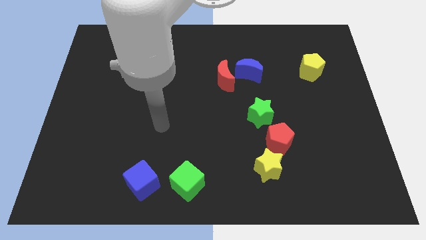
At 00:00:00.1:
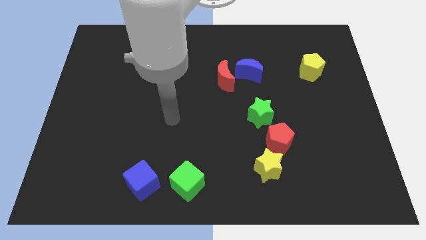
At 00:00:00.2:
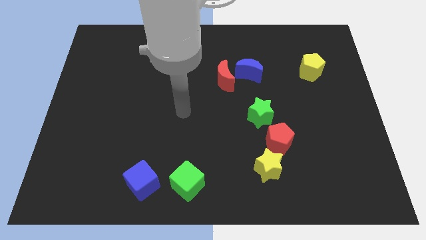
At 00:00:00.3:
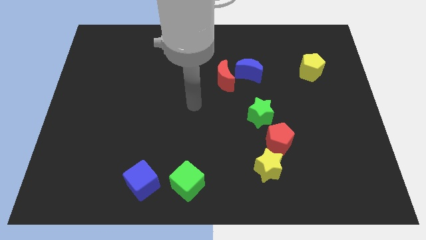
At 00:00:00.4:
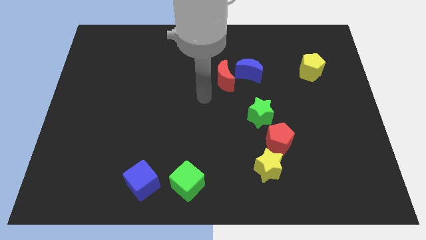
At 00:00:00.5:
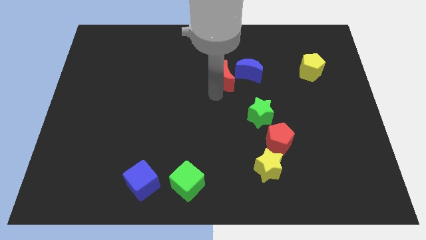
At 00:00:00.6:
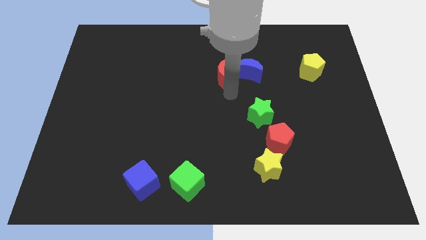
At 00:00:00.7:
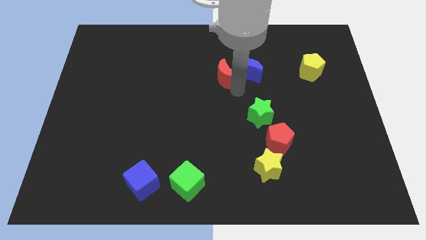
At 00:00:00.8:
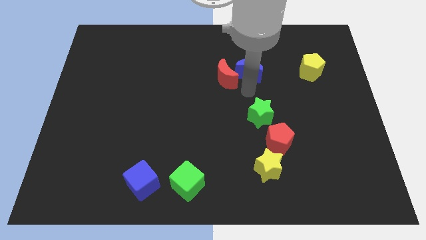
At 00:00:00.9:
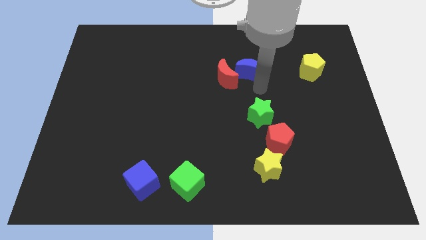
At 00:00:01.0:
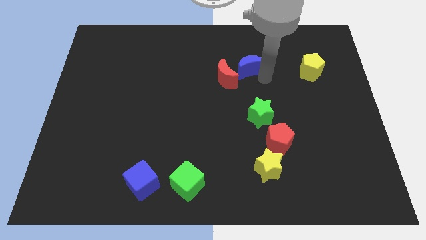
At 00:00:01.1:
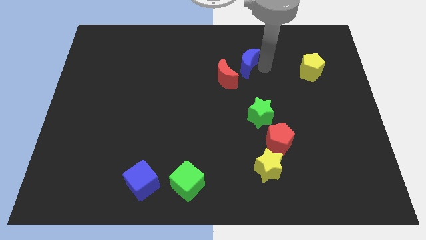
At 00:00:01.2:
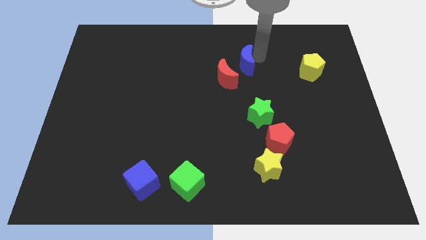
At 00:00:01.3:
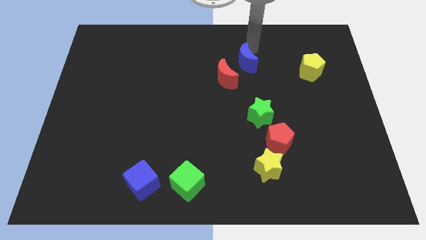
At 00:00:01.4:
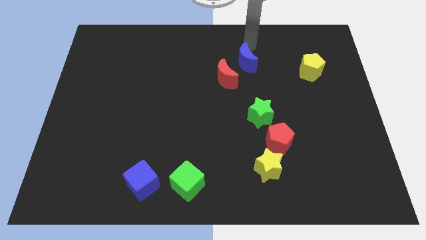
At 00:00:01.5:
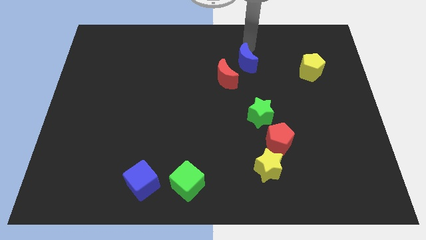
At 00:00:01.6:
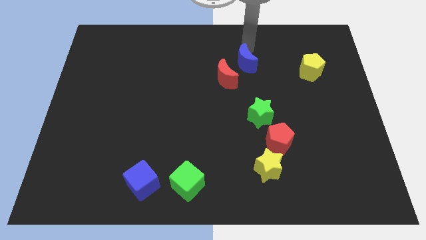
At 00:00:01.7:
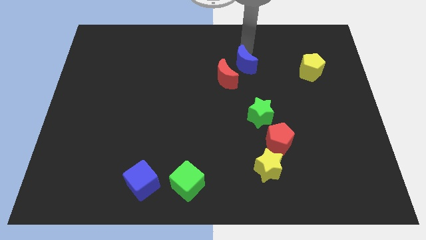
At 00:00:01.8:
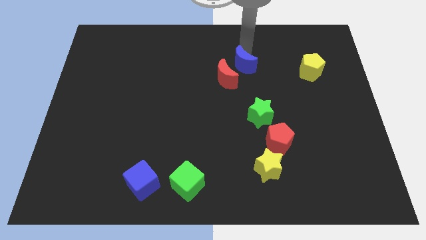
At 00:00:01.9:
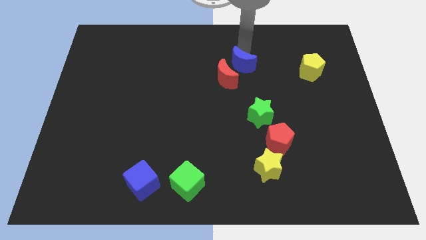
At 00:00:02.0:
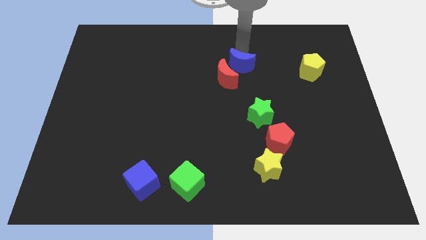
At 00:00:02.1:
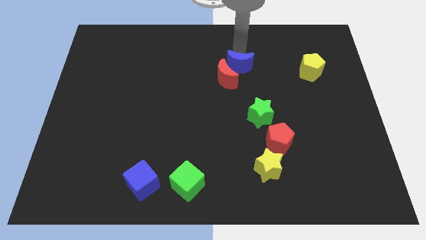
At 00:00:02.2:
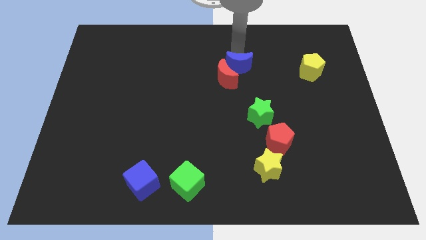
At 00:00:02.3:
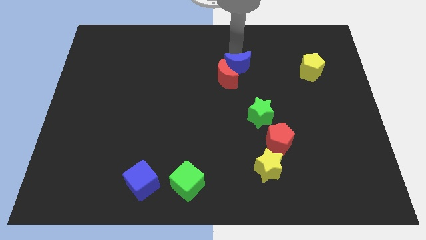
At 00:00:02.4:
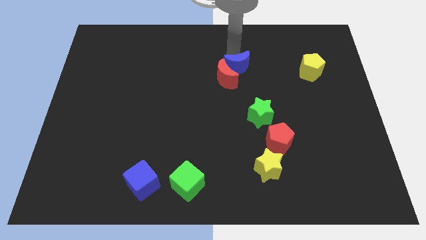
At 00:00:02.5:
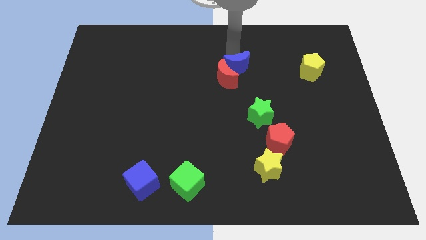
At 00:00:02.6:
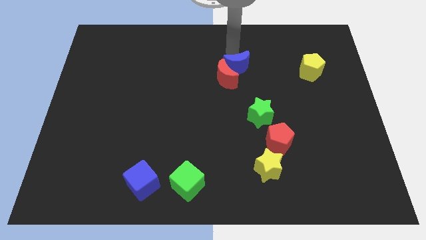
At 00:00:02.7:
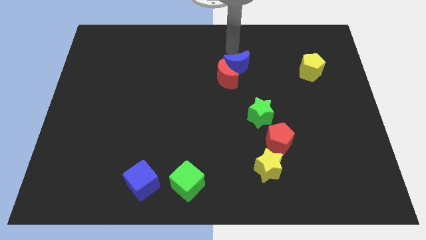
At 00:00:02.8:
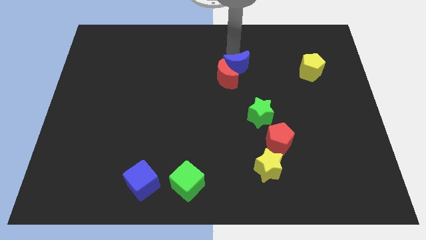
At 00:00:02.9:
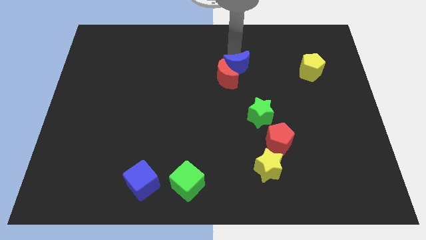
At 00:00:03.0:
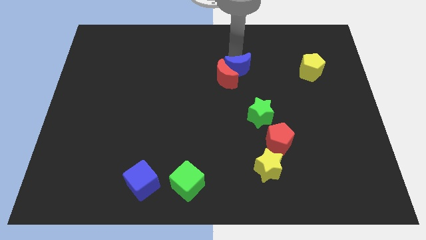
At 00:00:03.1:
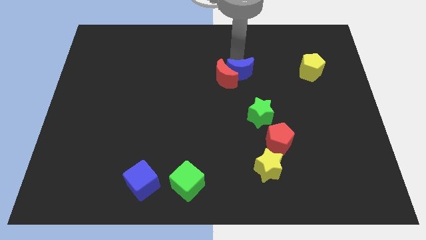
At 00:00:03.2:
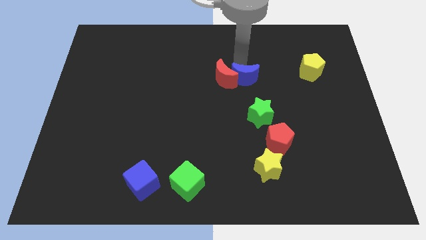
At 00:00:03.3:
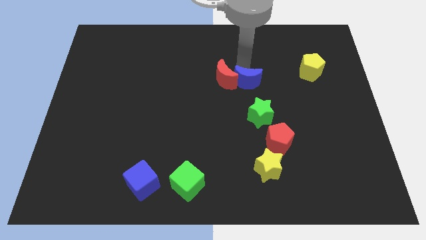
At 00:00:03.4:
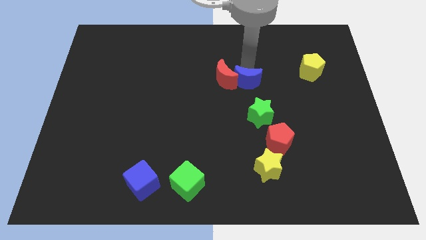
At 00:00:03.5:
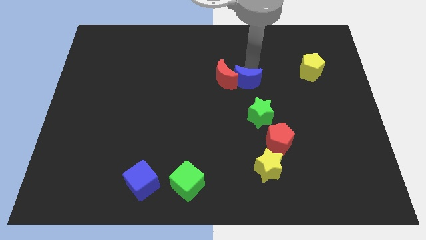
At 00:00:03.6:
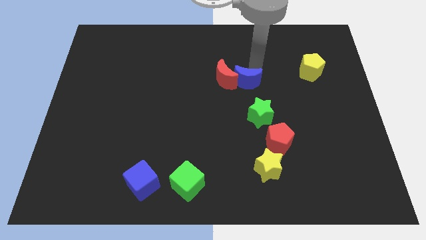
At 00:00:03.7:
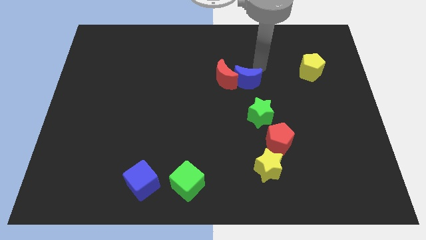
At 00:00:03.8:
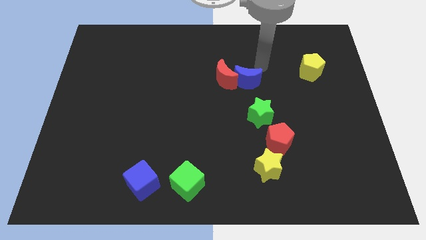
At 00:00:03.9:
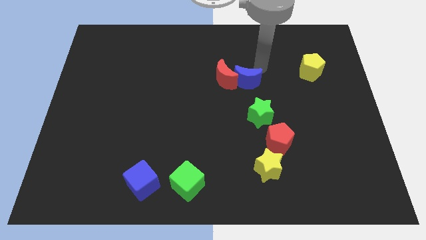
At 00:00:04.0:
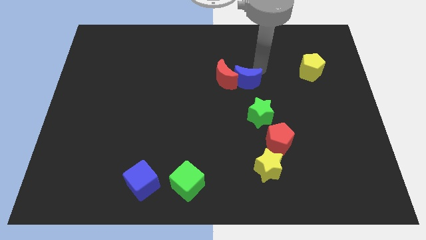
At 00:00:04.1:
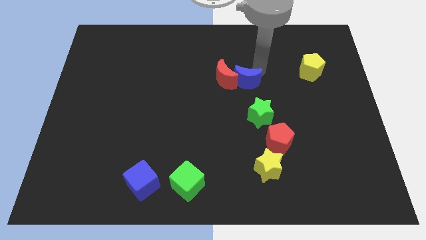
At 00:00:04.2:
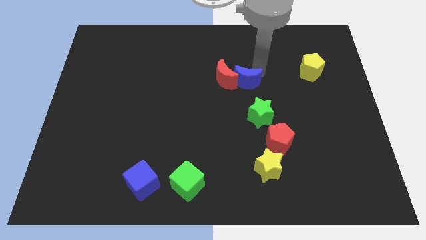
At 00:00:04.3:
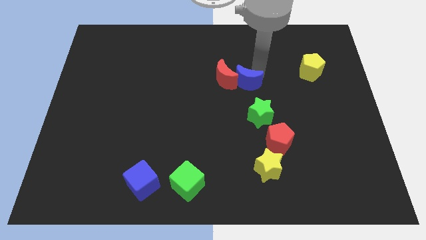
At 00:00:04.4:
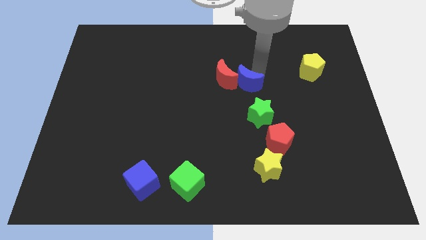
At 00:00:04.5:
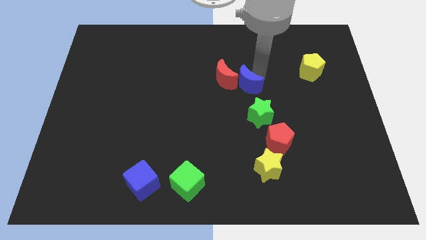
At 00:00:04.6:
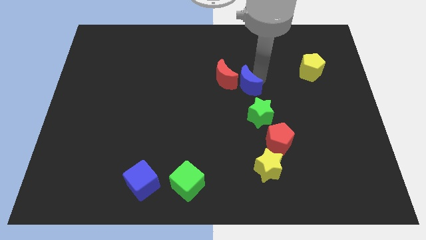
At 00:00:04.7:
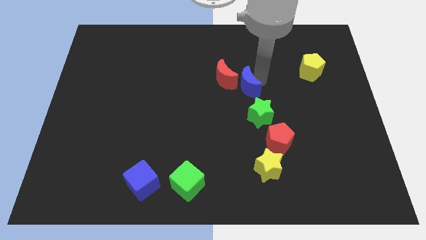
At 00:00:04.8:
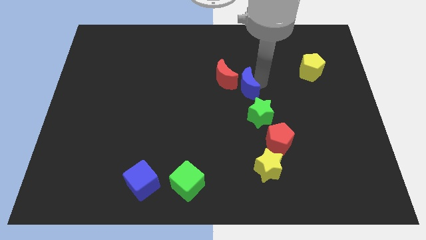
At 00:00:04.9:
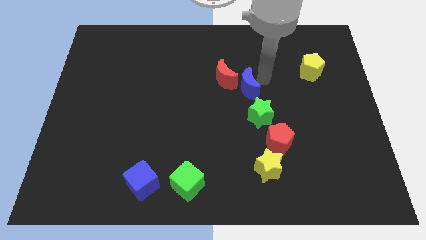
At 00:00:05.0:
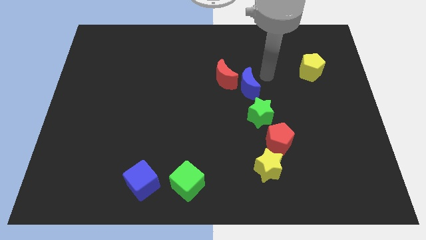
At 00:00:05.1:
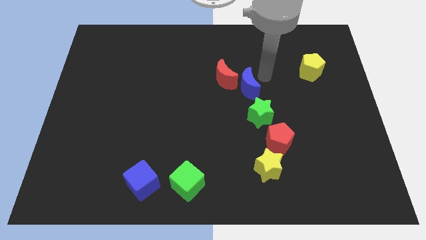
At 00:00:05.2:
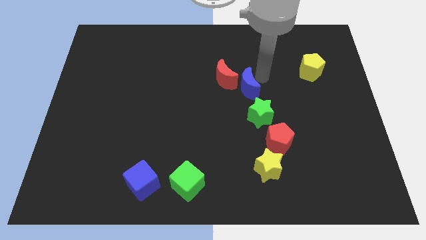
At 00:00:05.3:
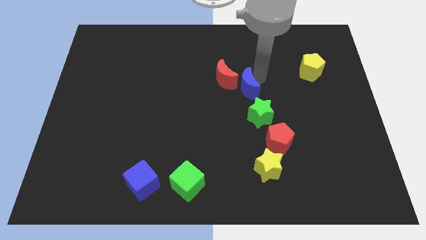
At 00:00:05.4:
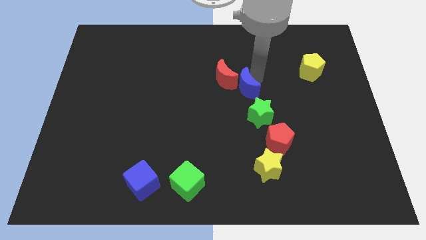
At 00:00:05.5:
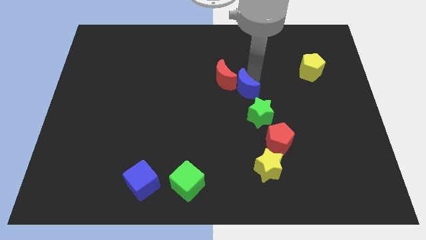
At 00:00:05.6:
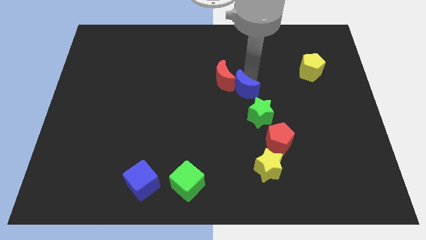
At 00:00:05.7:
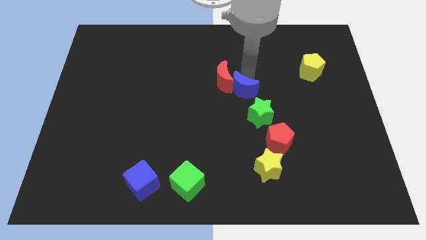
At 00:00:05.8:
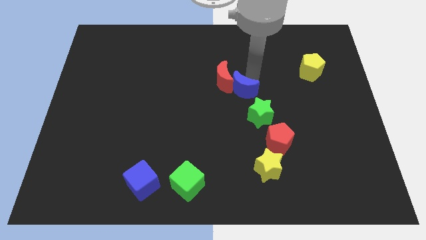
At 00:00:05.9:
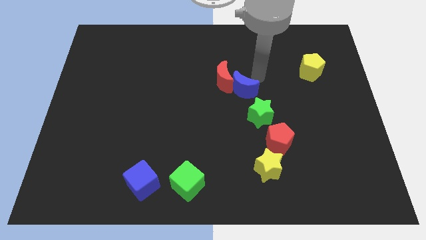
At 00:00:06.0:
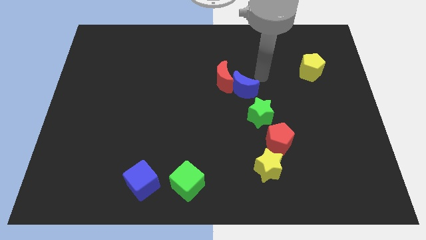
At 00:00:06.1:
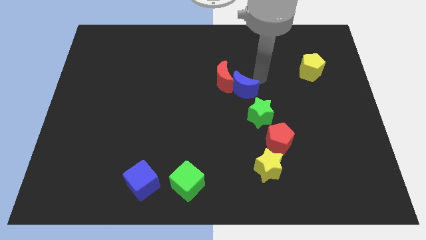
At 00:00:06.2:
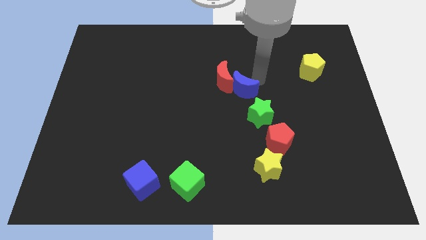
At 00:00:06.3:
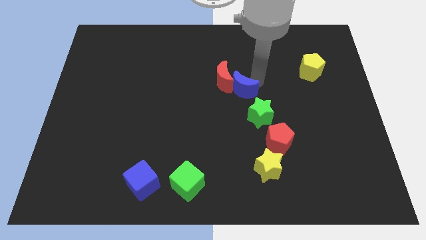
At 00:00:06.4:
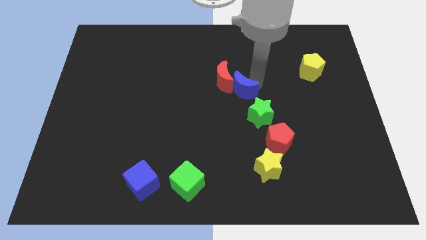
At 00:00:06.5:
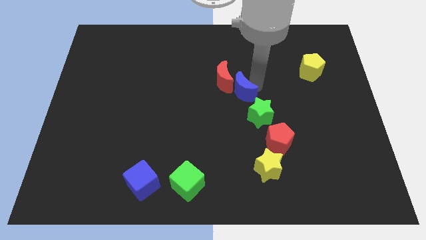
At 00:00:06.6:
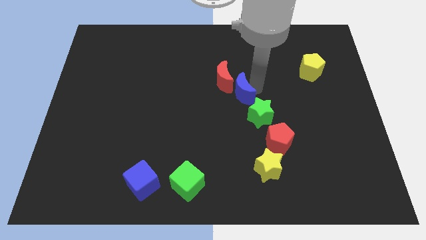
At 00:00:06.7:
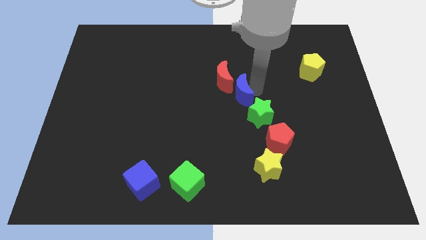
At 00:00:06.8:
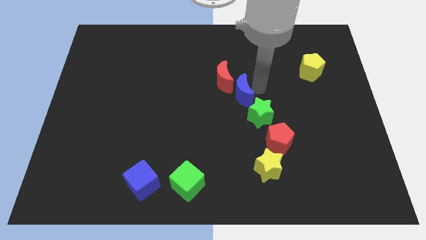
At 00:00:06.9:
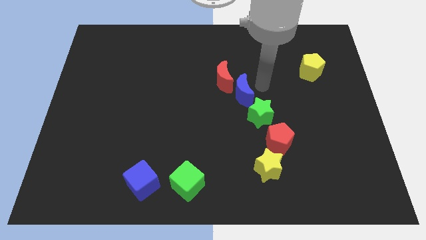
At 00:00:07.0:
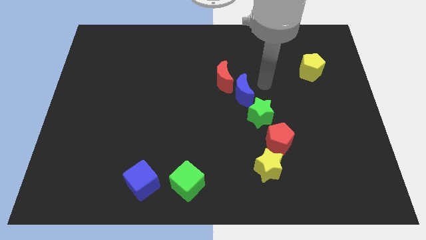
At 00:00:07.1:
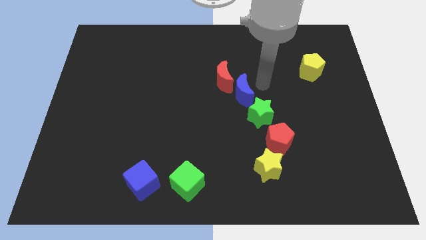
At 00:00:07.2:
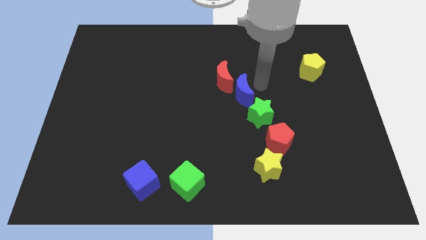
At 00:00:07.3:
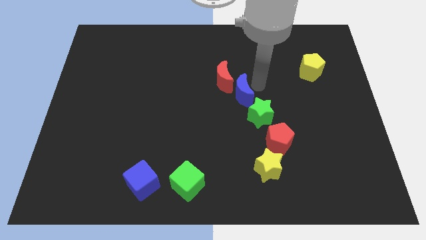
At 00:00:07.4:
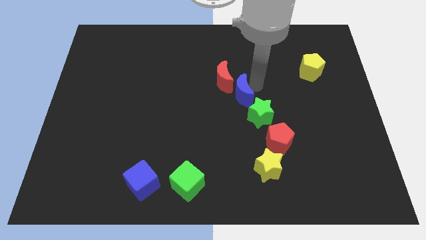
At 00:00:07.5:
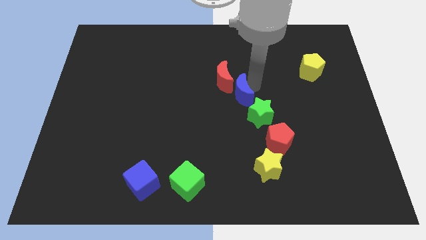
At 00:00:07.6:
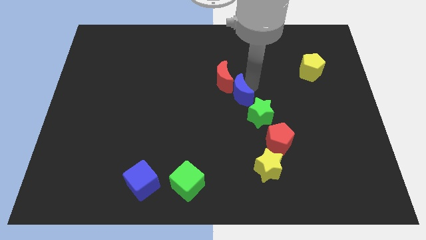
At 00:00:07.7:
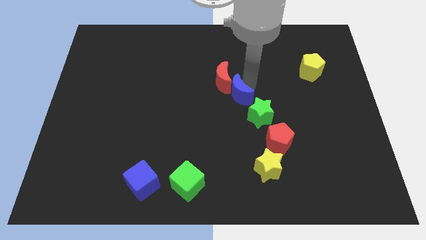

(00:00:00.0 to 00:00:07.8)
move the blue moon a bit downwards and to the left

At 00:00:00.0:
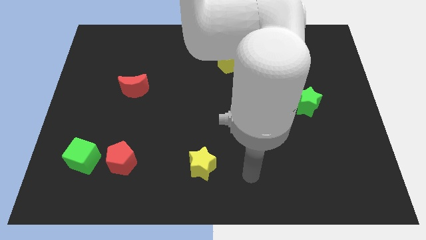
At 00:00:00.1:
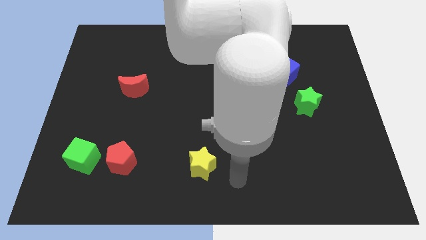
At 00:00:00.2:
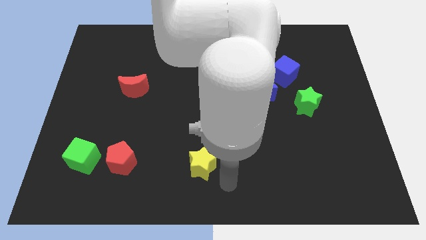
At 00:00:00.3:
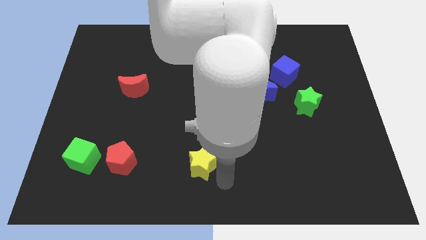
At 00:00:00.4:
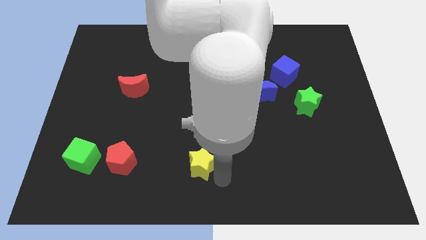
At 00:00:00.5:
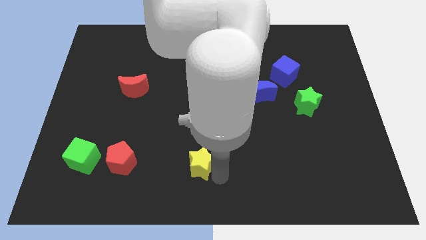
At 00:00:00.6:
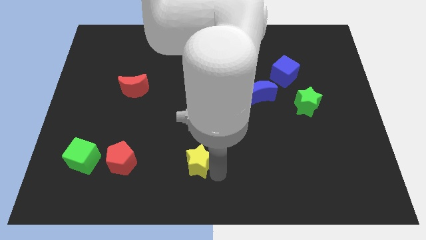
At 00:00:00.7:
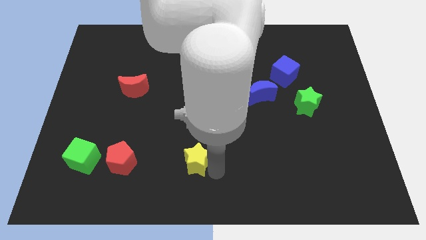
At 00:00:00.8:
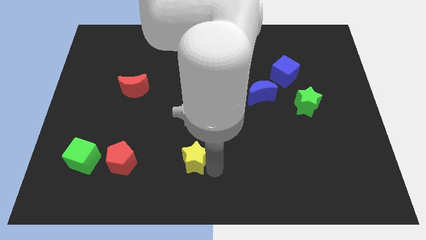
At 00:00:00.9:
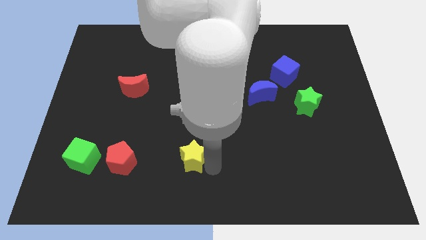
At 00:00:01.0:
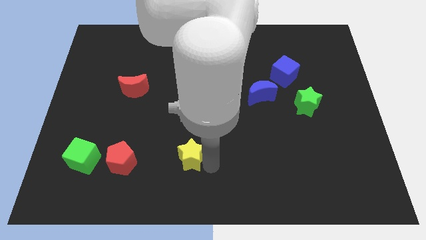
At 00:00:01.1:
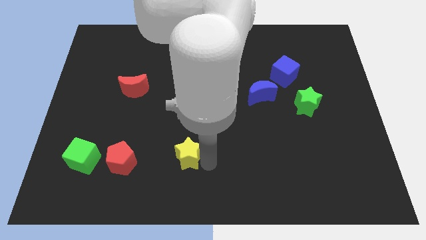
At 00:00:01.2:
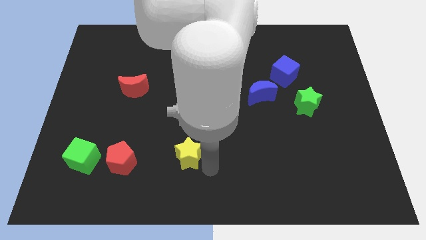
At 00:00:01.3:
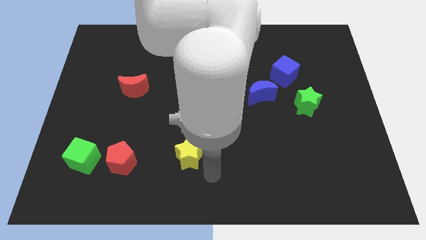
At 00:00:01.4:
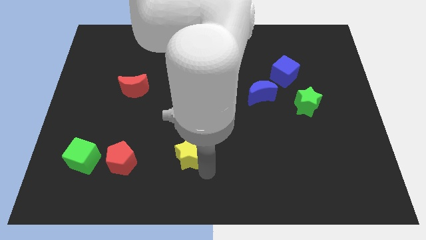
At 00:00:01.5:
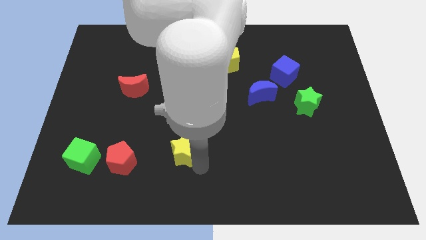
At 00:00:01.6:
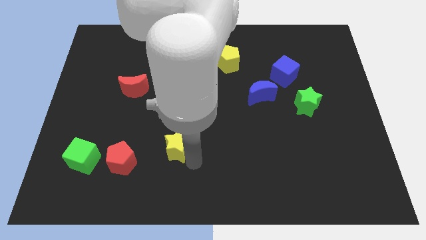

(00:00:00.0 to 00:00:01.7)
move the yellow star up and left slightly
